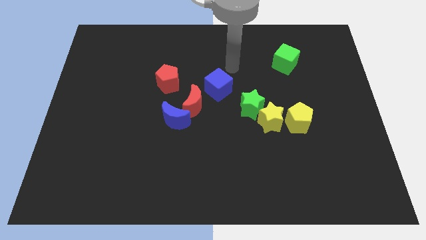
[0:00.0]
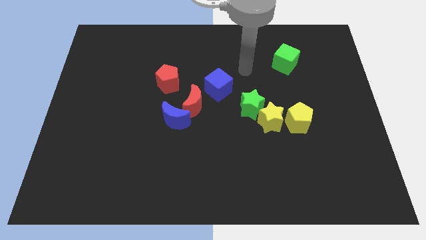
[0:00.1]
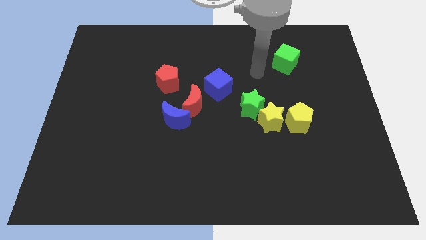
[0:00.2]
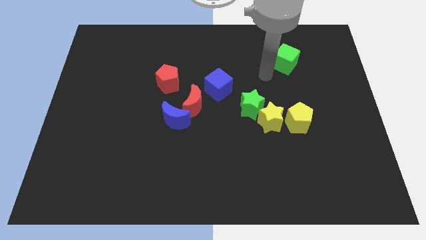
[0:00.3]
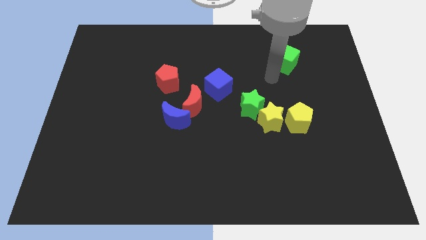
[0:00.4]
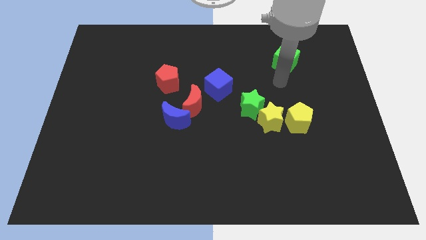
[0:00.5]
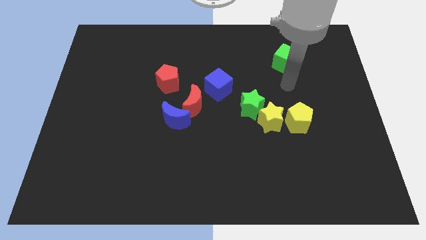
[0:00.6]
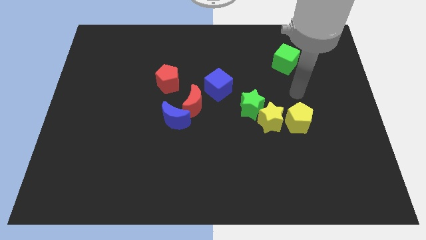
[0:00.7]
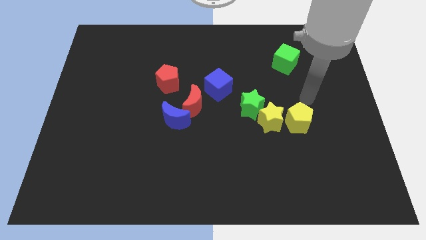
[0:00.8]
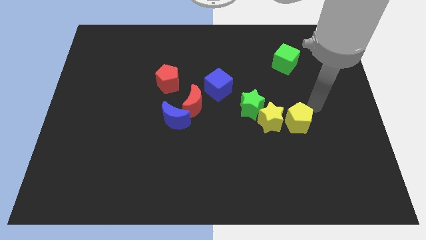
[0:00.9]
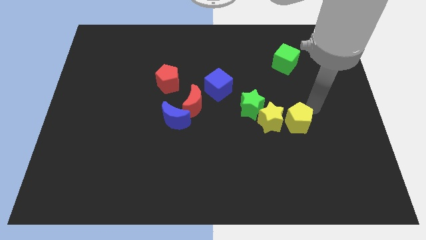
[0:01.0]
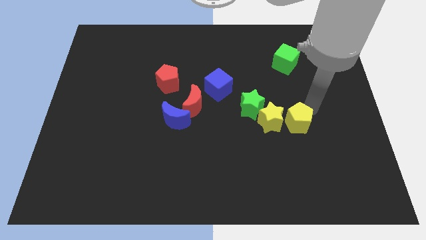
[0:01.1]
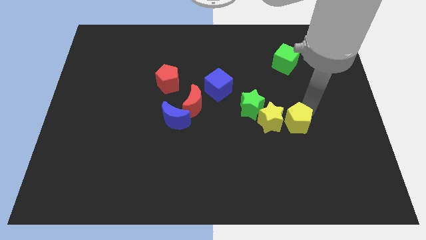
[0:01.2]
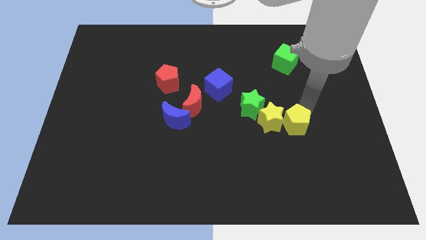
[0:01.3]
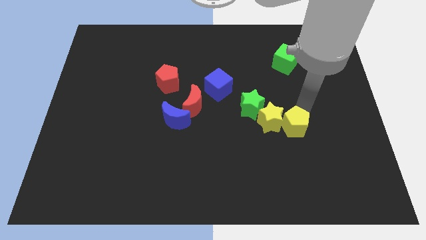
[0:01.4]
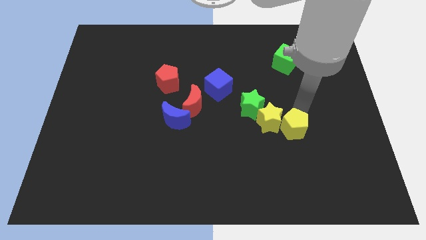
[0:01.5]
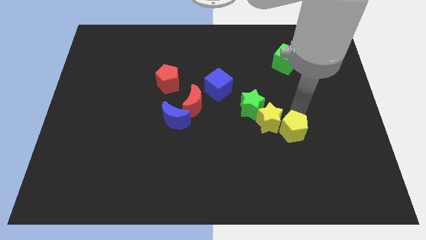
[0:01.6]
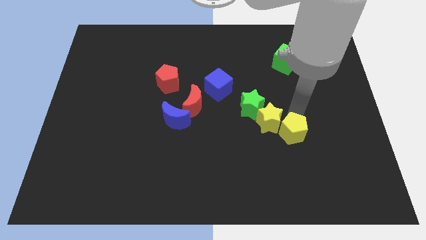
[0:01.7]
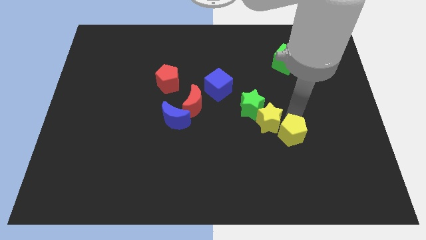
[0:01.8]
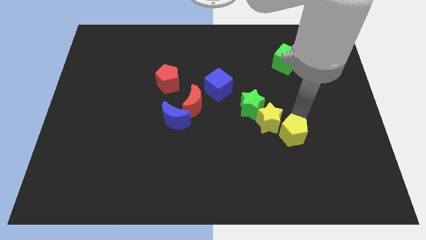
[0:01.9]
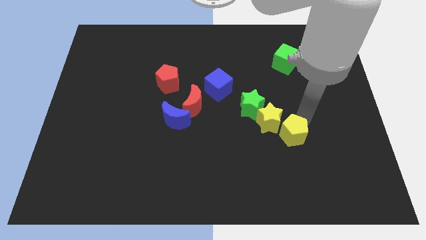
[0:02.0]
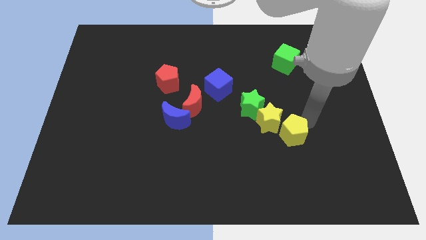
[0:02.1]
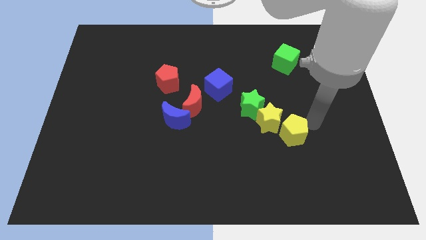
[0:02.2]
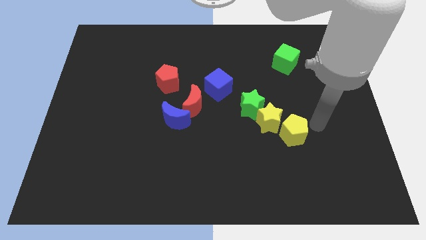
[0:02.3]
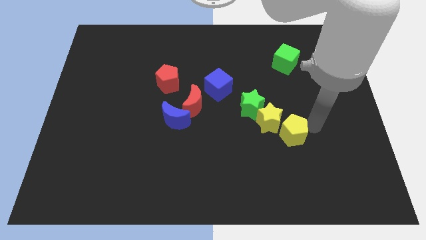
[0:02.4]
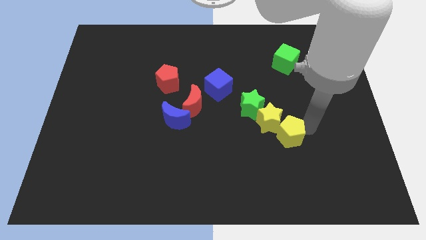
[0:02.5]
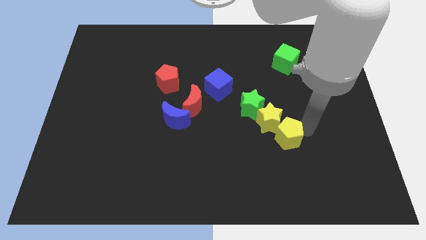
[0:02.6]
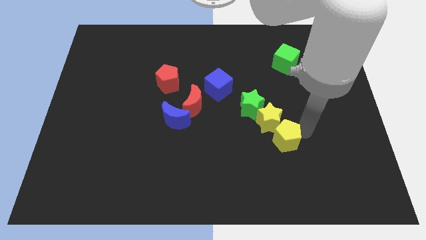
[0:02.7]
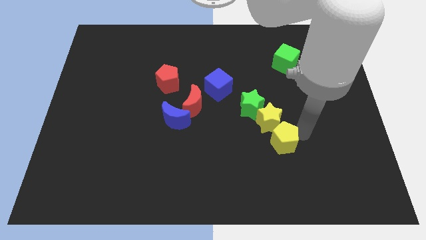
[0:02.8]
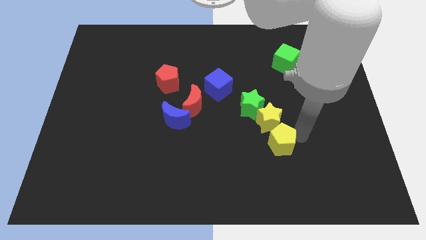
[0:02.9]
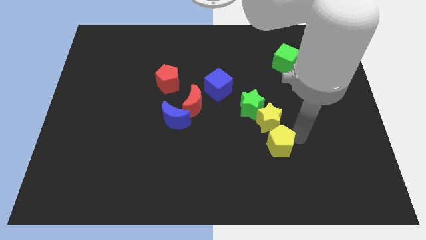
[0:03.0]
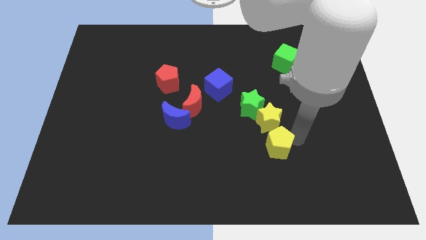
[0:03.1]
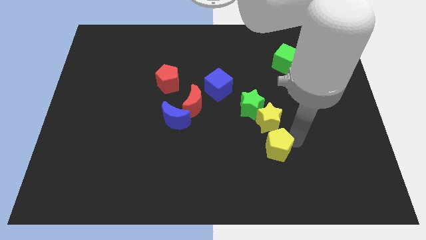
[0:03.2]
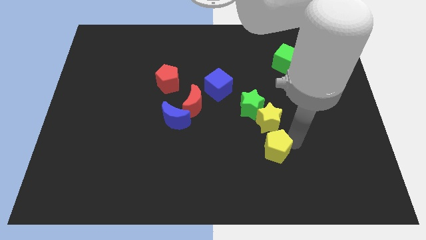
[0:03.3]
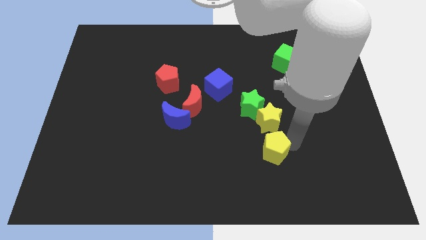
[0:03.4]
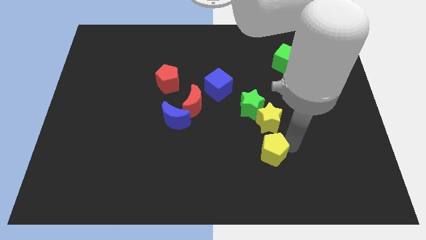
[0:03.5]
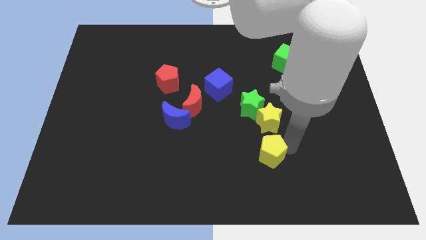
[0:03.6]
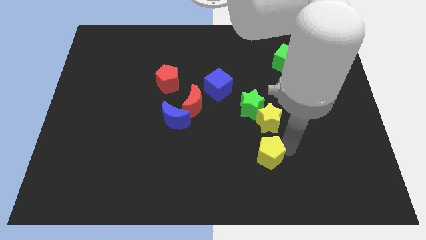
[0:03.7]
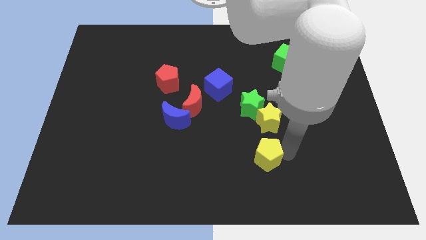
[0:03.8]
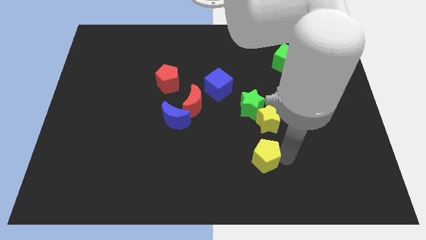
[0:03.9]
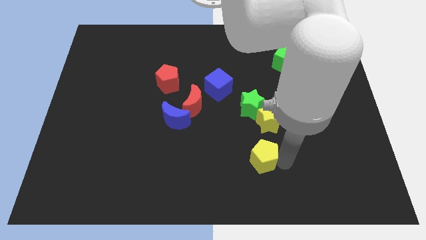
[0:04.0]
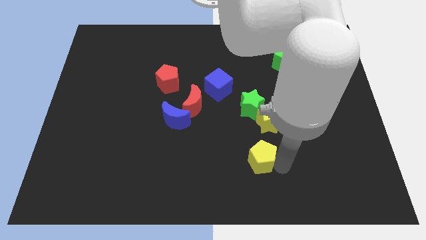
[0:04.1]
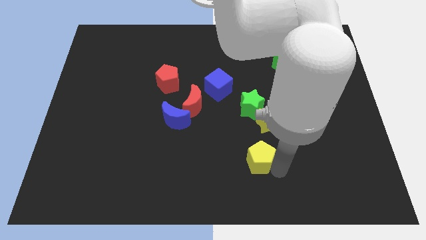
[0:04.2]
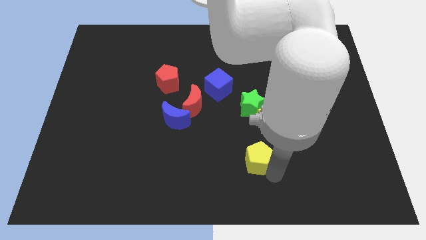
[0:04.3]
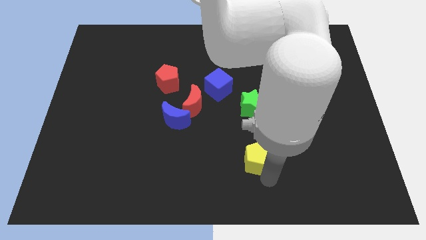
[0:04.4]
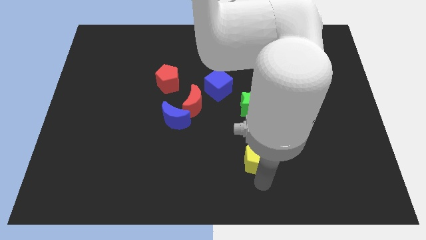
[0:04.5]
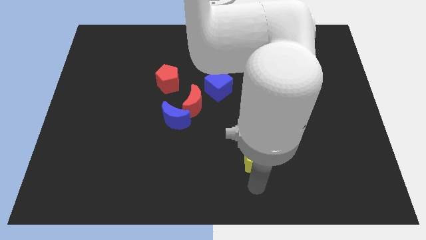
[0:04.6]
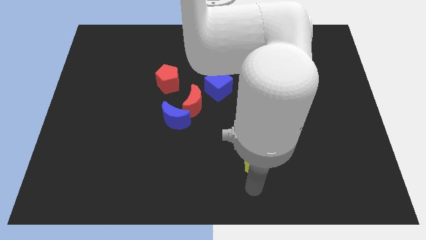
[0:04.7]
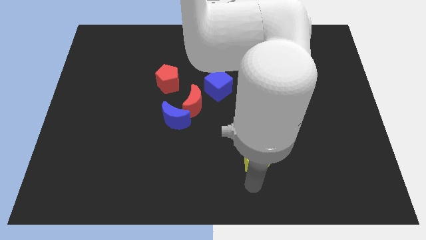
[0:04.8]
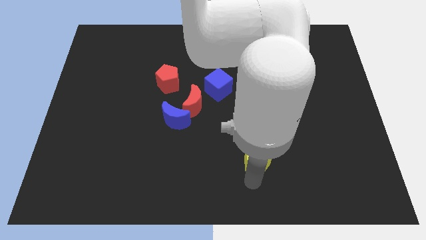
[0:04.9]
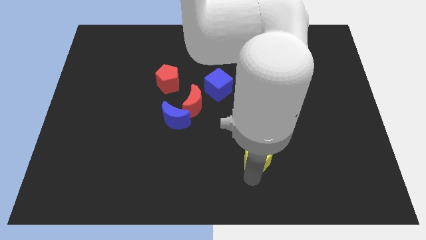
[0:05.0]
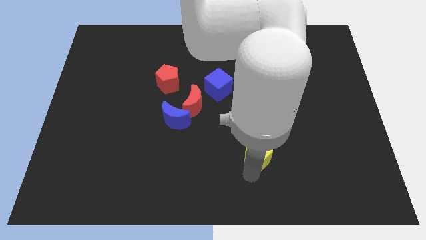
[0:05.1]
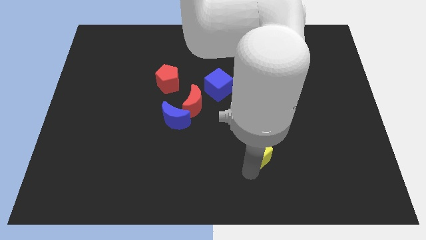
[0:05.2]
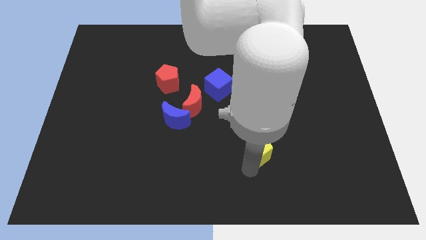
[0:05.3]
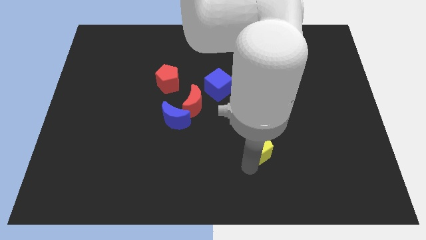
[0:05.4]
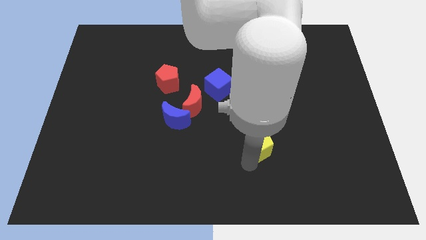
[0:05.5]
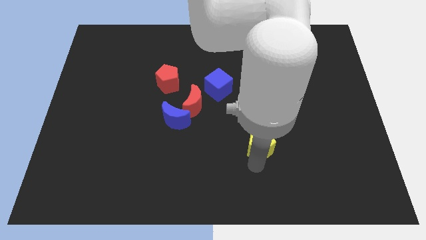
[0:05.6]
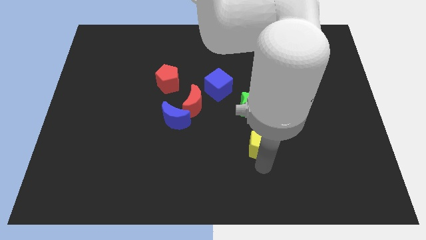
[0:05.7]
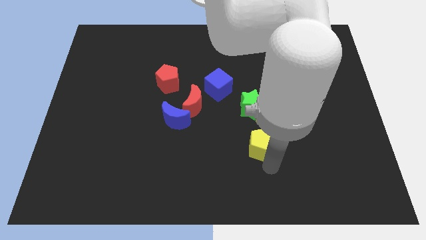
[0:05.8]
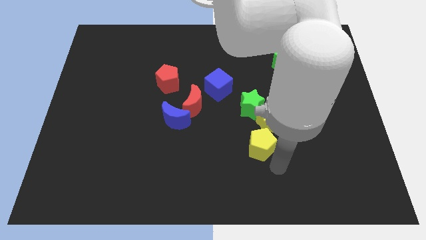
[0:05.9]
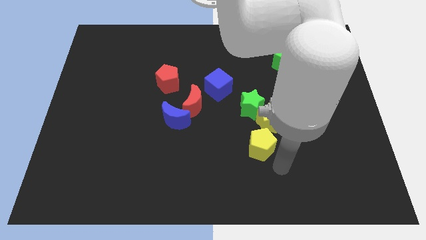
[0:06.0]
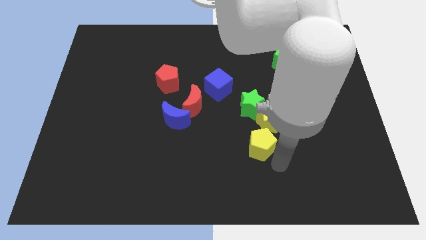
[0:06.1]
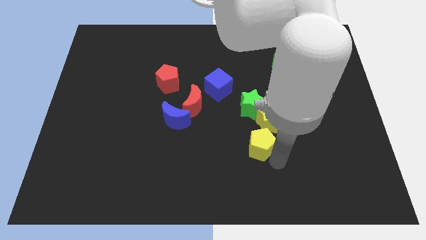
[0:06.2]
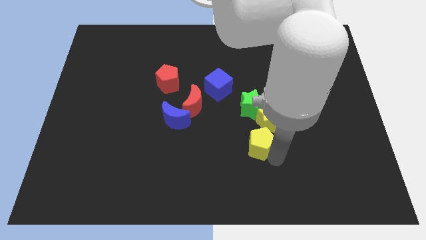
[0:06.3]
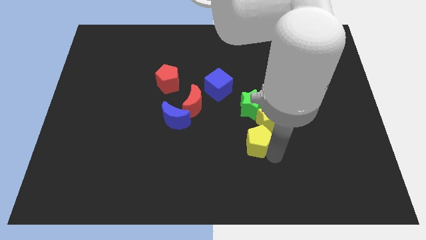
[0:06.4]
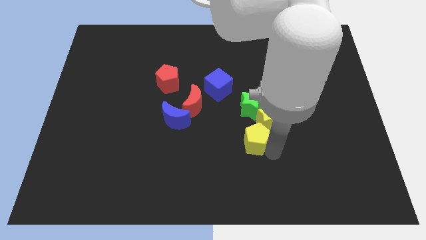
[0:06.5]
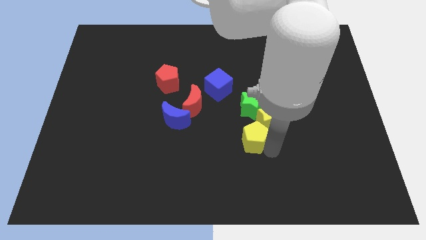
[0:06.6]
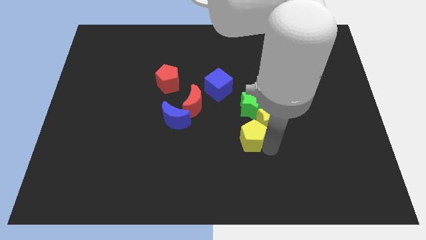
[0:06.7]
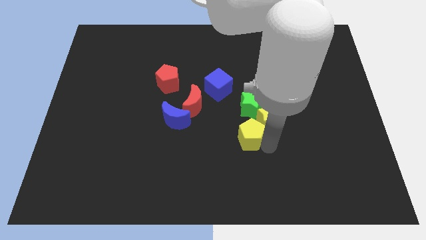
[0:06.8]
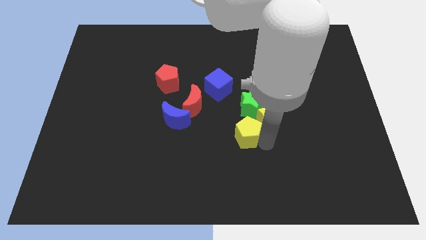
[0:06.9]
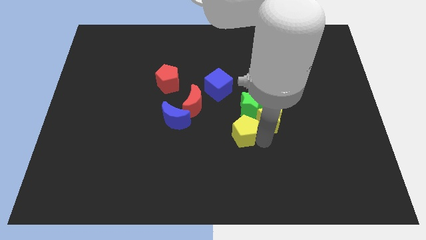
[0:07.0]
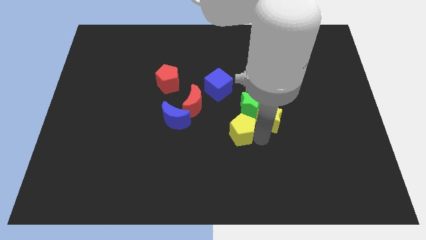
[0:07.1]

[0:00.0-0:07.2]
put the yellow pentagon to the right of the blue moon

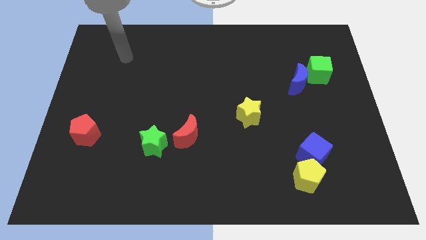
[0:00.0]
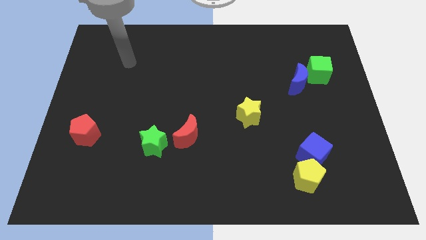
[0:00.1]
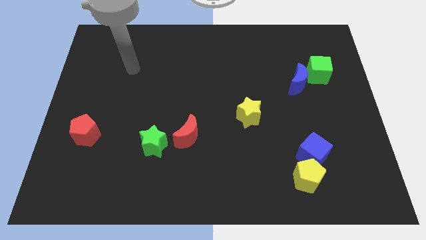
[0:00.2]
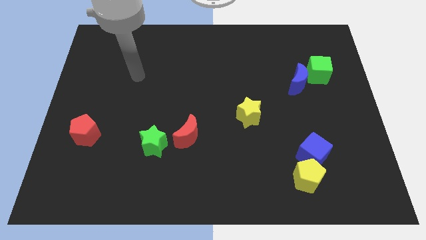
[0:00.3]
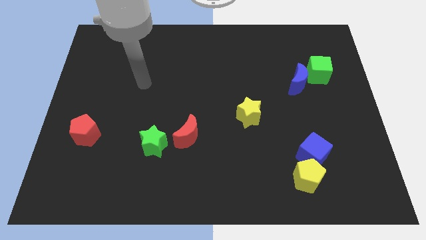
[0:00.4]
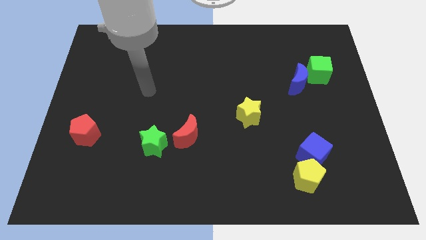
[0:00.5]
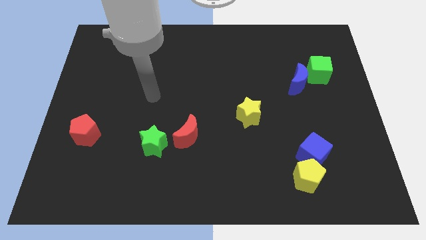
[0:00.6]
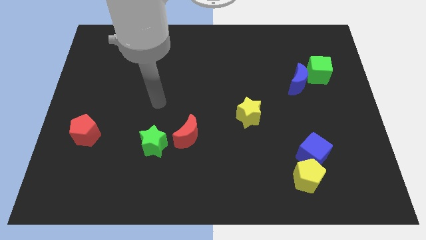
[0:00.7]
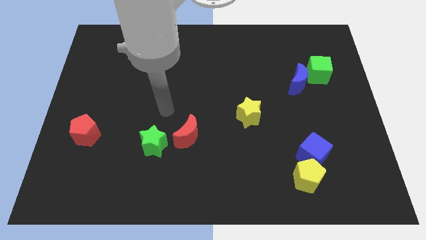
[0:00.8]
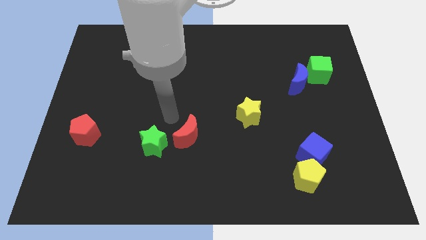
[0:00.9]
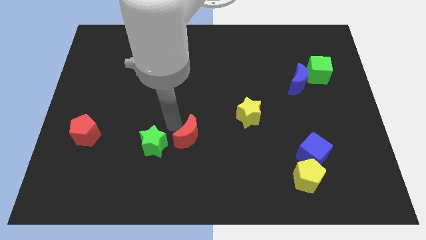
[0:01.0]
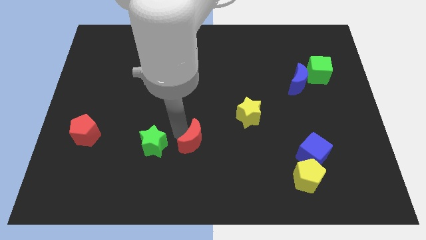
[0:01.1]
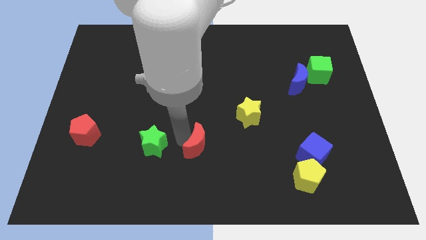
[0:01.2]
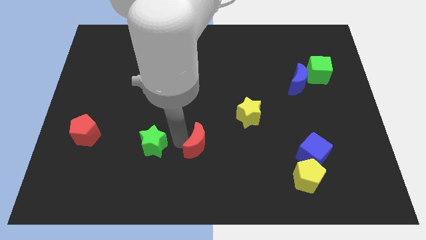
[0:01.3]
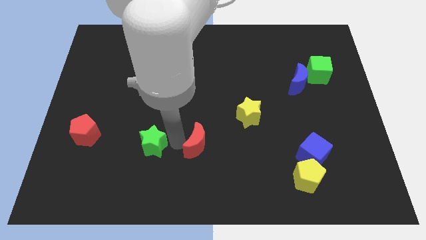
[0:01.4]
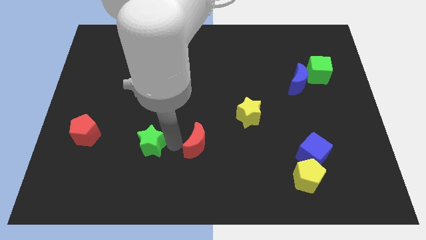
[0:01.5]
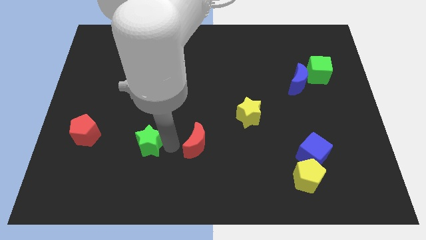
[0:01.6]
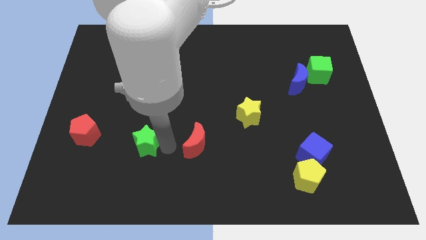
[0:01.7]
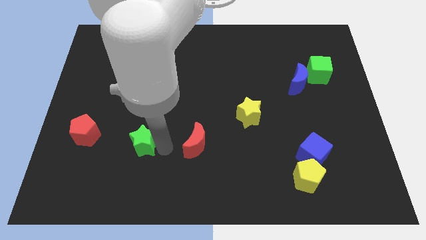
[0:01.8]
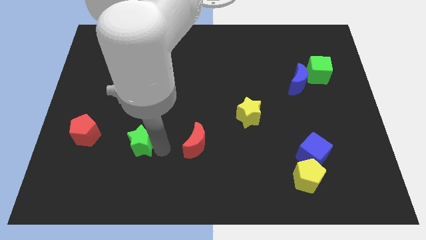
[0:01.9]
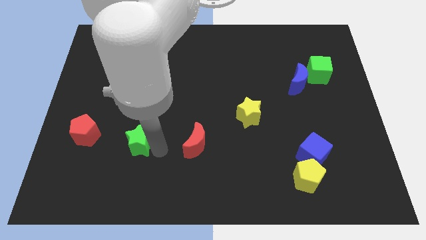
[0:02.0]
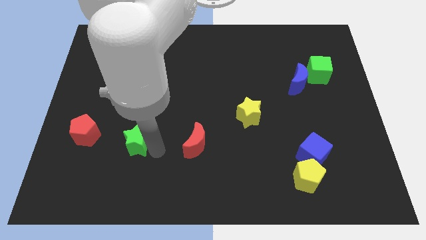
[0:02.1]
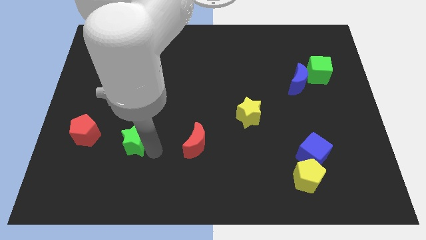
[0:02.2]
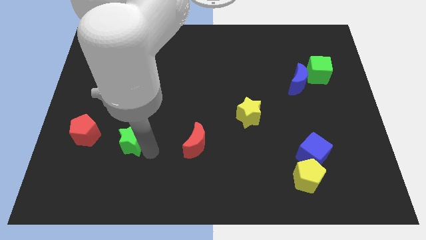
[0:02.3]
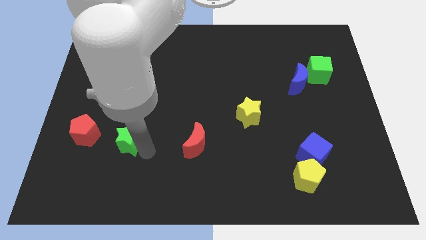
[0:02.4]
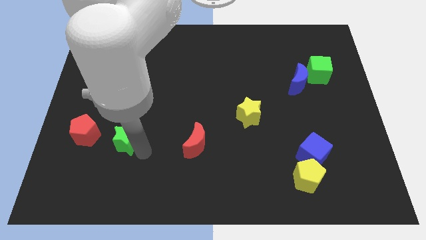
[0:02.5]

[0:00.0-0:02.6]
push the green star diagonally down and to the right of the red pentagon
